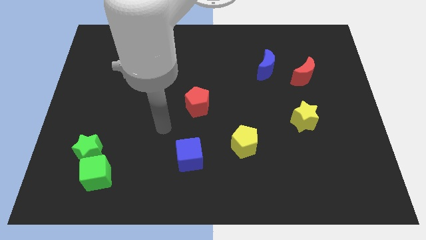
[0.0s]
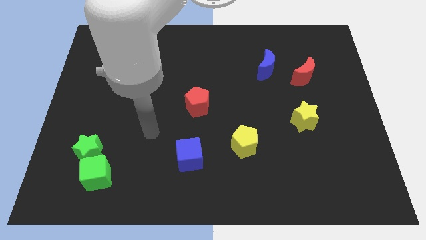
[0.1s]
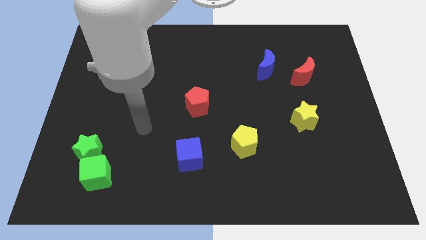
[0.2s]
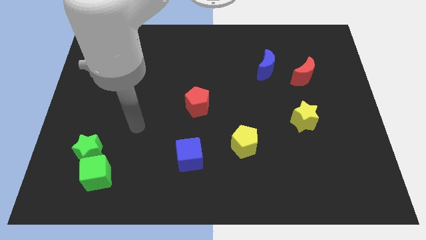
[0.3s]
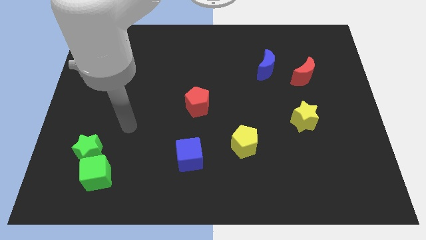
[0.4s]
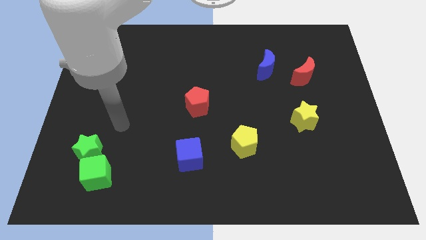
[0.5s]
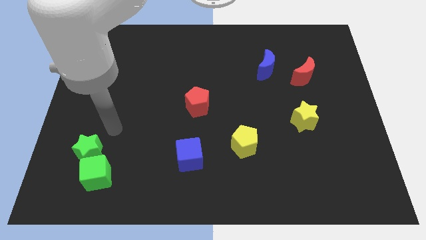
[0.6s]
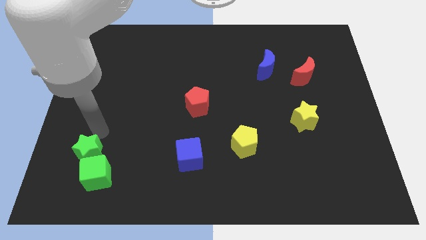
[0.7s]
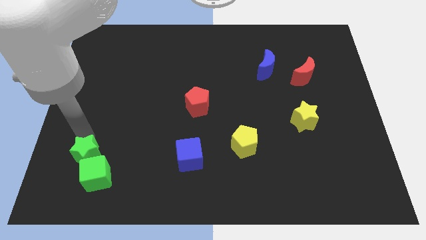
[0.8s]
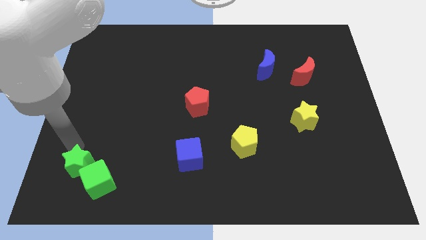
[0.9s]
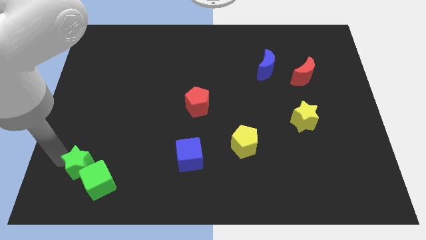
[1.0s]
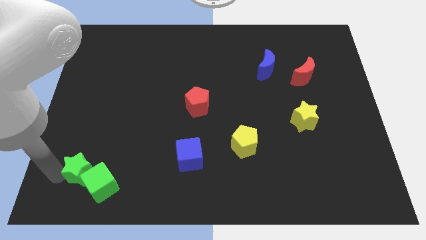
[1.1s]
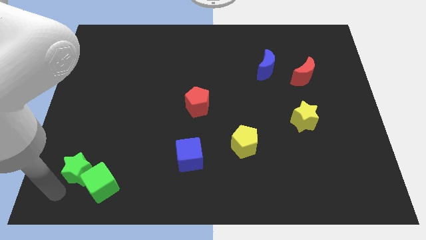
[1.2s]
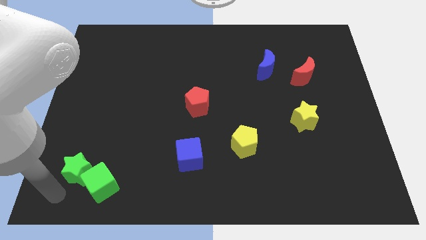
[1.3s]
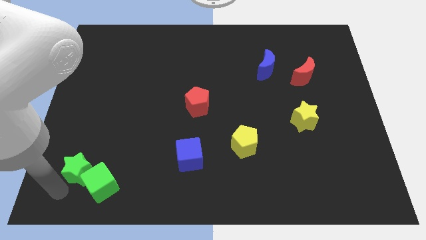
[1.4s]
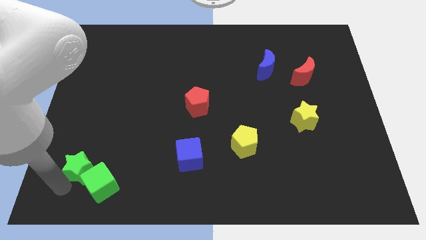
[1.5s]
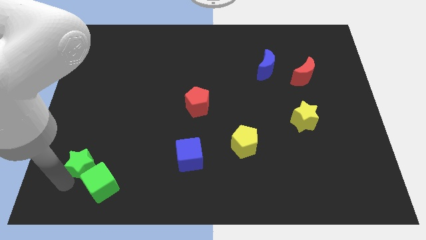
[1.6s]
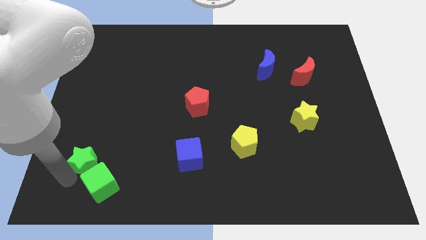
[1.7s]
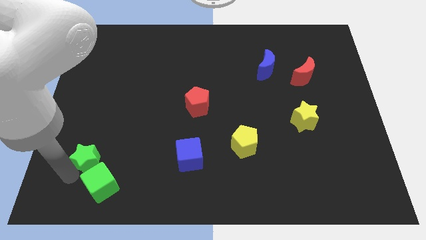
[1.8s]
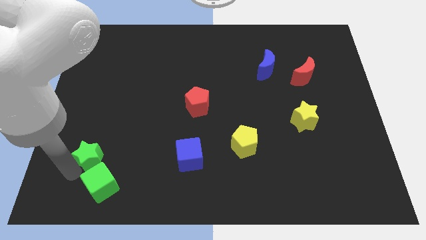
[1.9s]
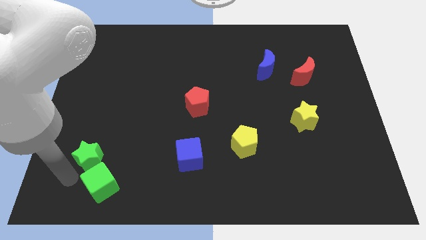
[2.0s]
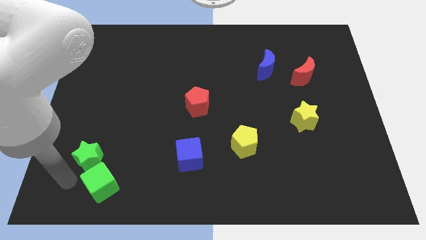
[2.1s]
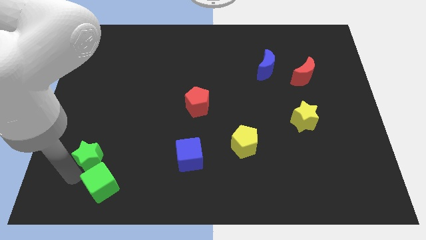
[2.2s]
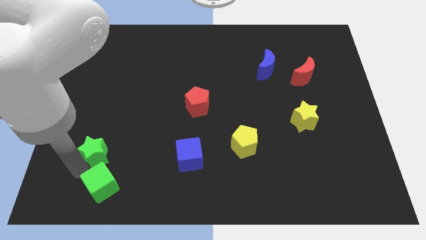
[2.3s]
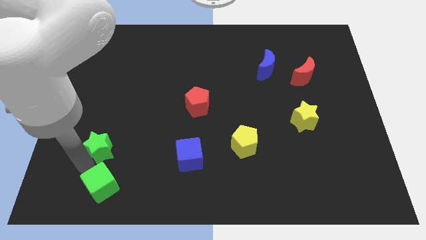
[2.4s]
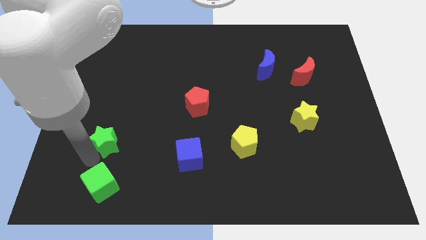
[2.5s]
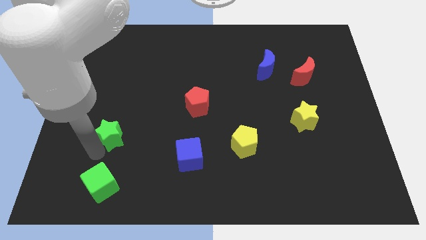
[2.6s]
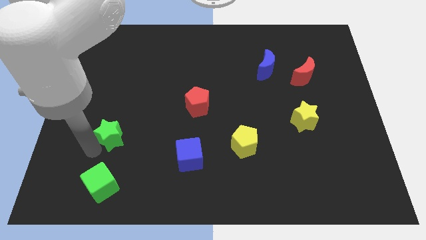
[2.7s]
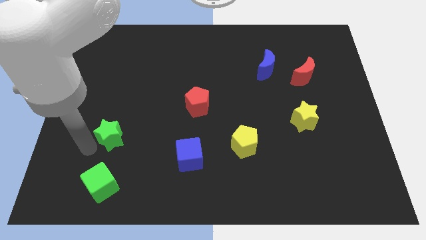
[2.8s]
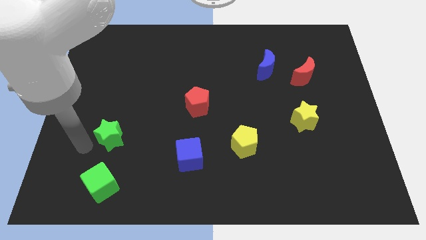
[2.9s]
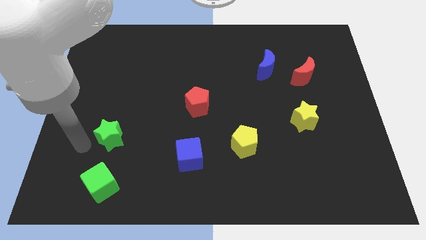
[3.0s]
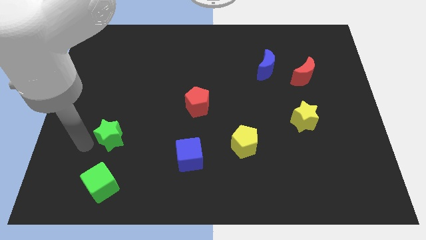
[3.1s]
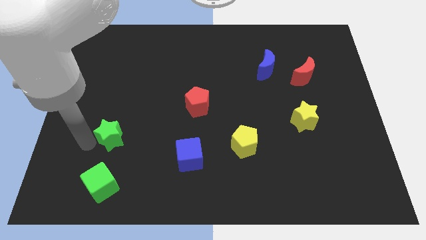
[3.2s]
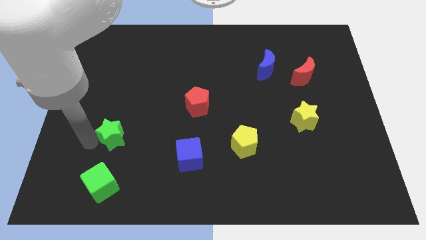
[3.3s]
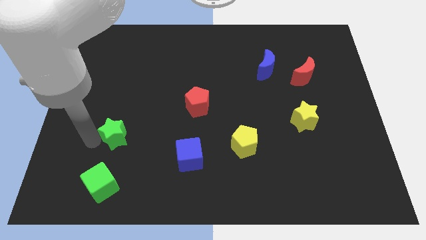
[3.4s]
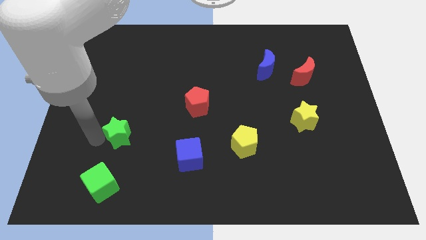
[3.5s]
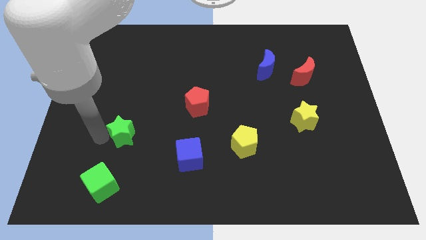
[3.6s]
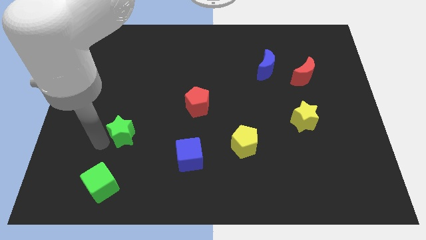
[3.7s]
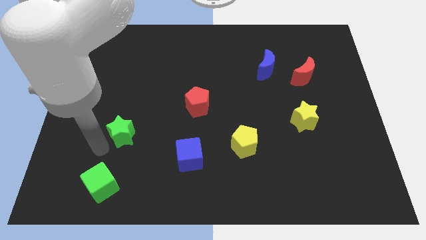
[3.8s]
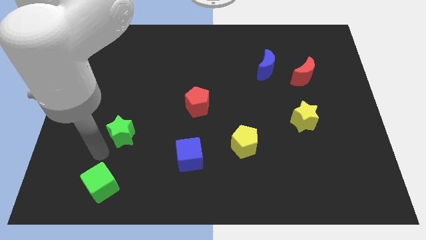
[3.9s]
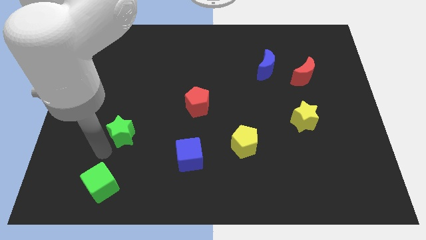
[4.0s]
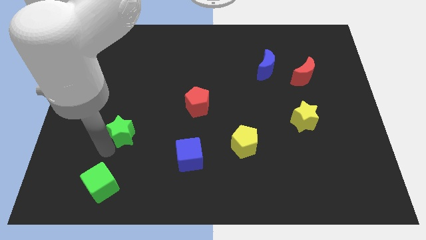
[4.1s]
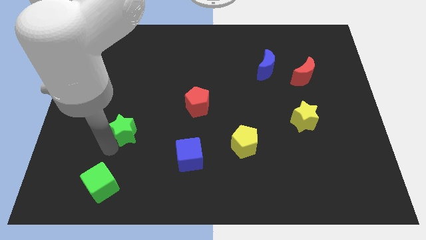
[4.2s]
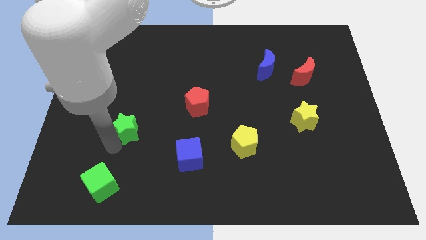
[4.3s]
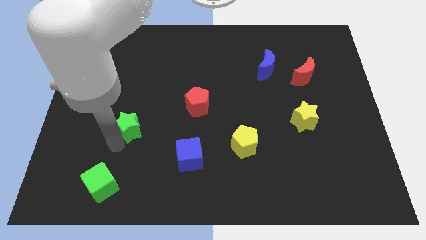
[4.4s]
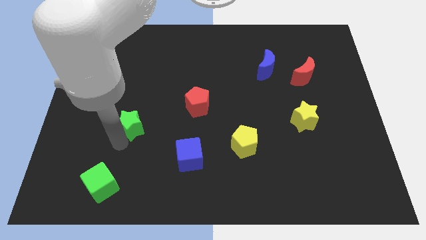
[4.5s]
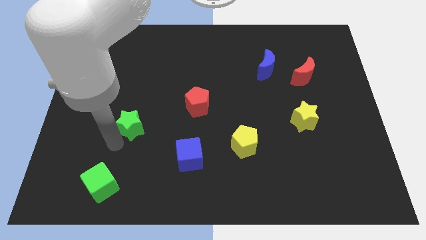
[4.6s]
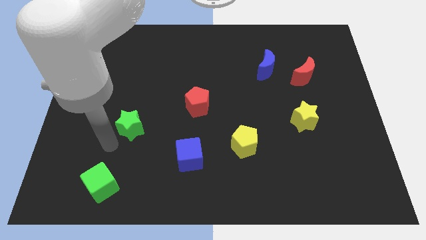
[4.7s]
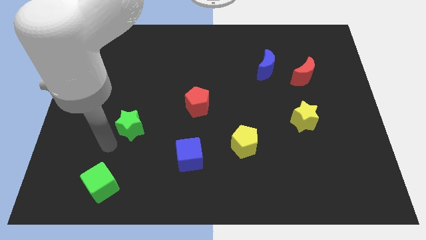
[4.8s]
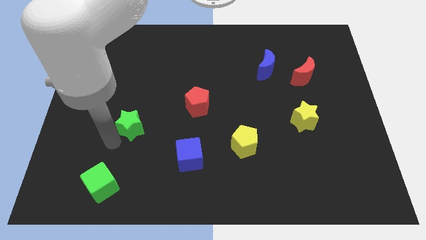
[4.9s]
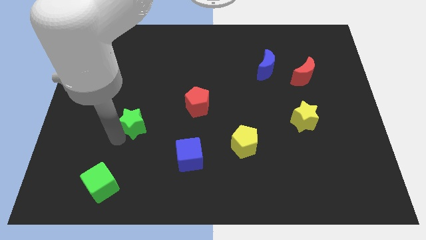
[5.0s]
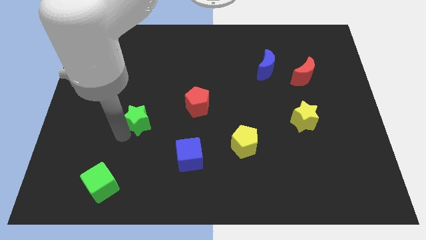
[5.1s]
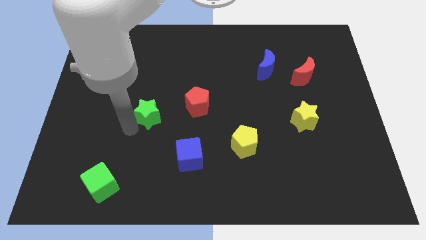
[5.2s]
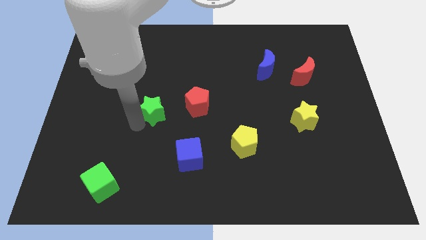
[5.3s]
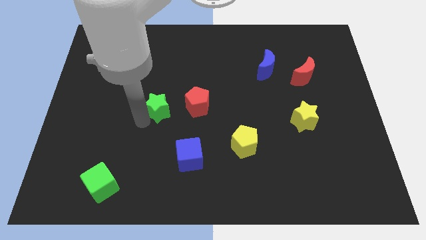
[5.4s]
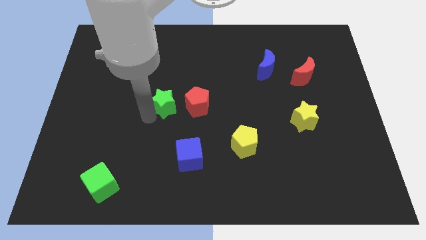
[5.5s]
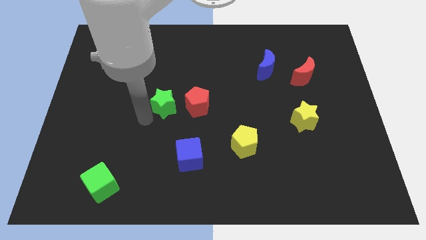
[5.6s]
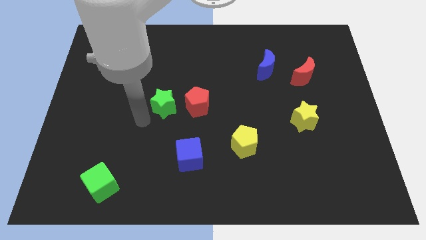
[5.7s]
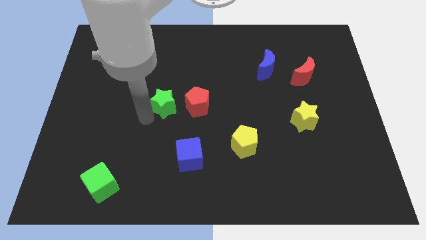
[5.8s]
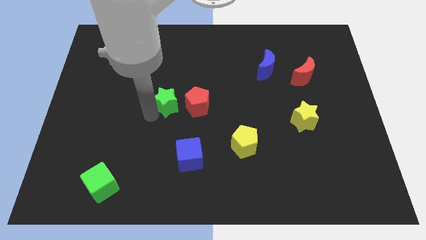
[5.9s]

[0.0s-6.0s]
move the green star upwards and right

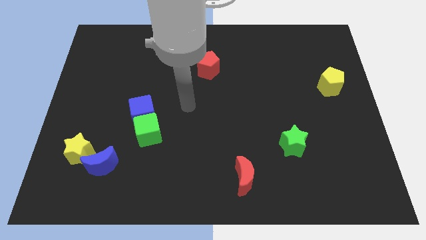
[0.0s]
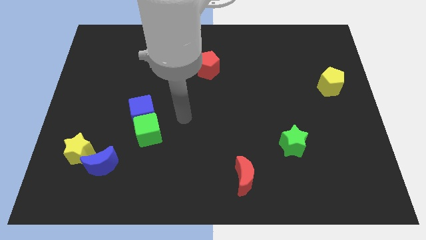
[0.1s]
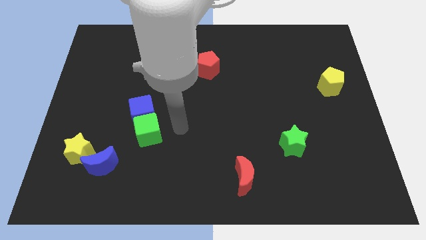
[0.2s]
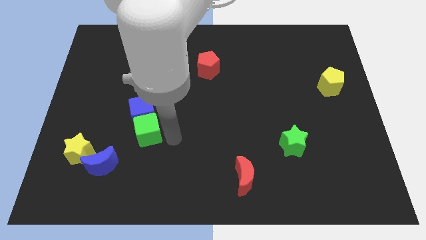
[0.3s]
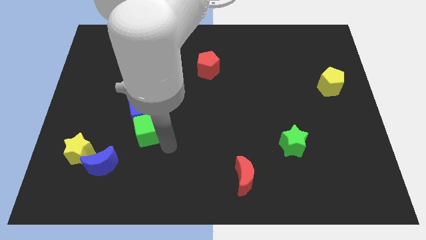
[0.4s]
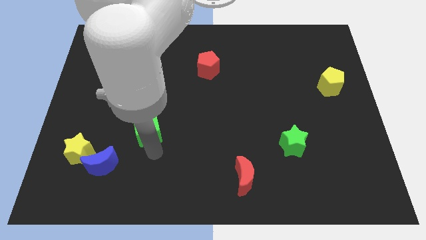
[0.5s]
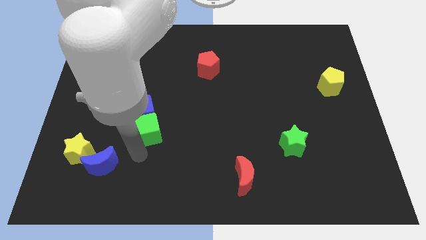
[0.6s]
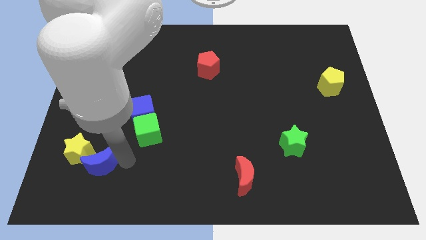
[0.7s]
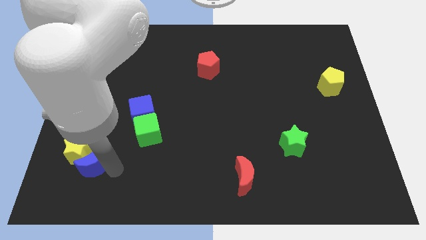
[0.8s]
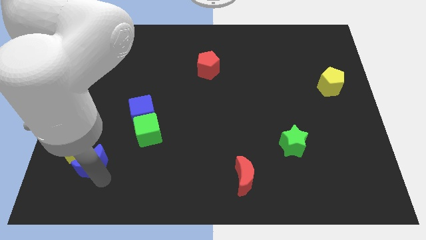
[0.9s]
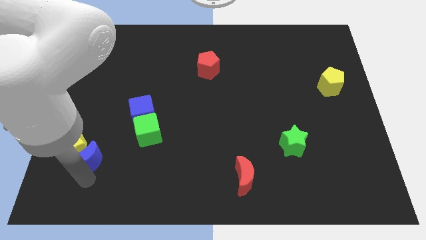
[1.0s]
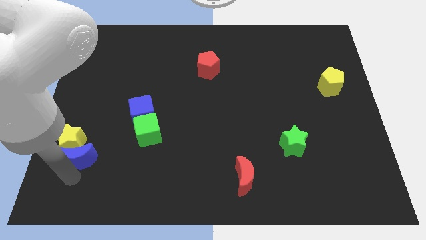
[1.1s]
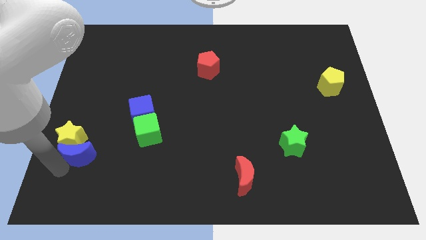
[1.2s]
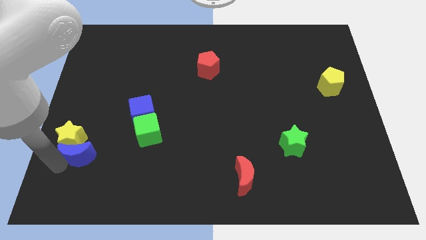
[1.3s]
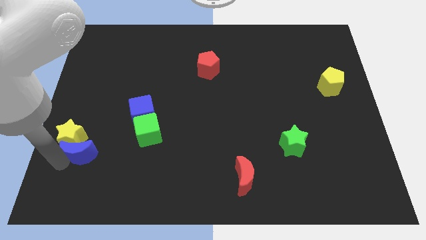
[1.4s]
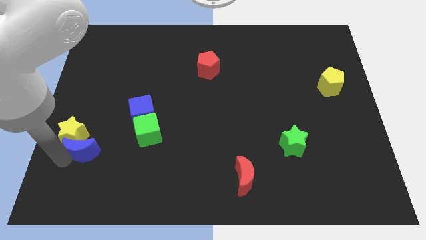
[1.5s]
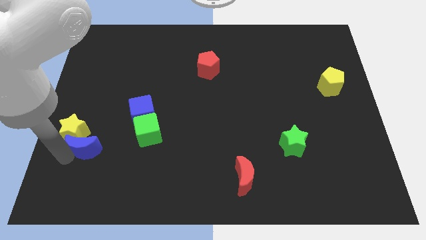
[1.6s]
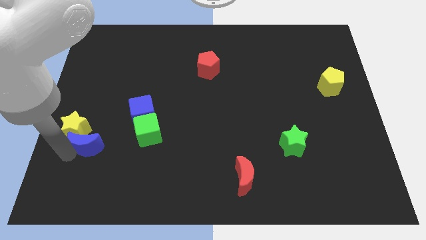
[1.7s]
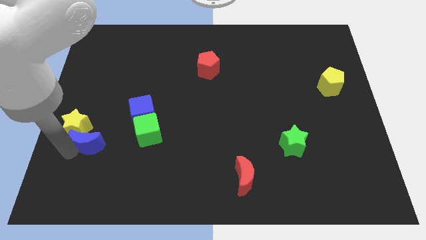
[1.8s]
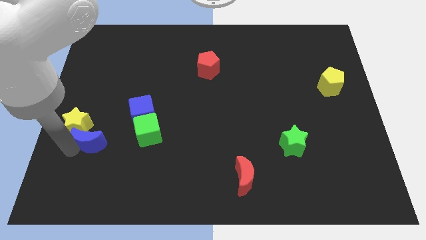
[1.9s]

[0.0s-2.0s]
slightly move the yellow star upwards
